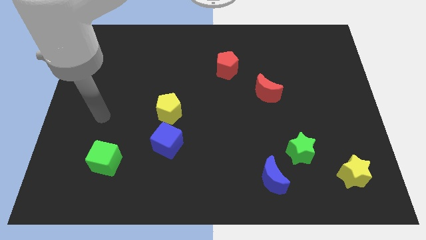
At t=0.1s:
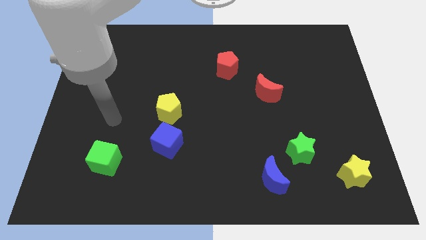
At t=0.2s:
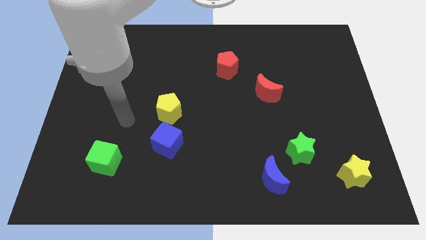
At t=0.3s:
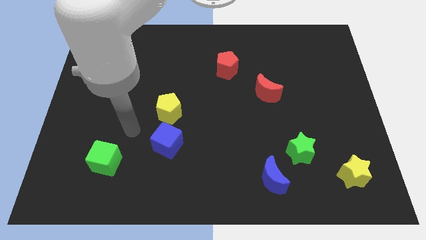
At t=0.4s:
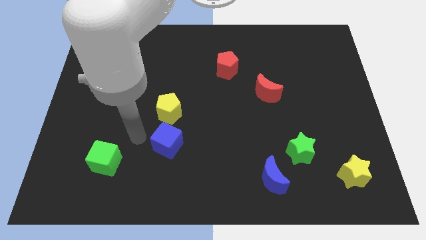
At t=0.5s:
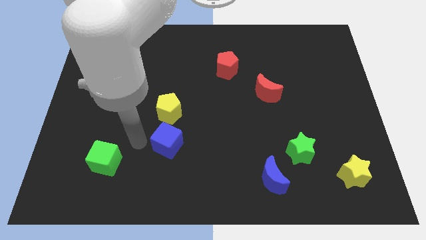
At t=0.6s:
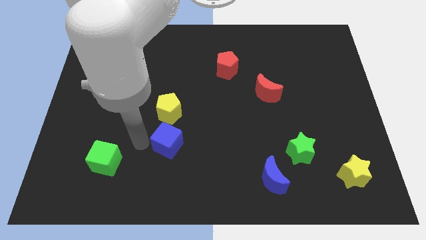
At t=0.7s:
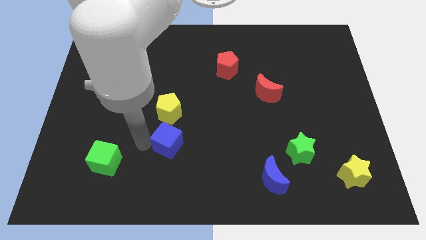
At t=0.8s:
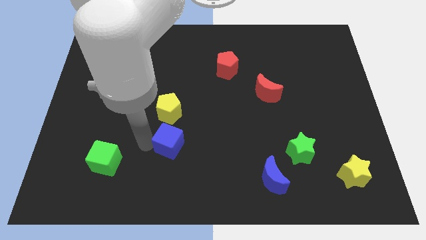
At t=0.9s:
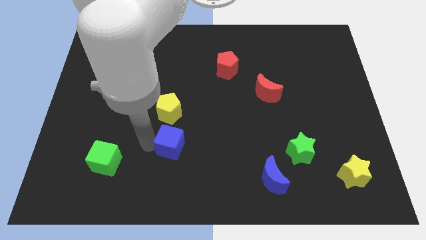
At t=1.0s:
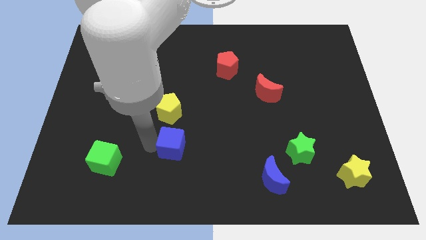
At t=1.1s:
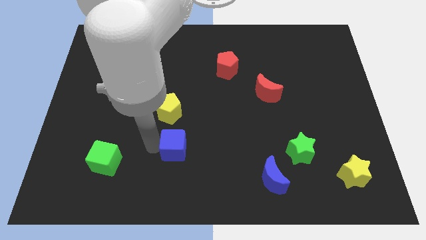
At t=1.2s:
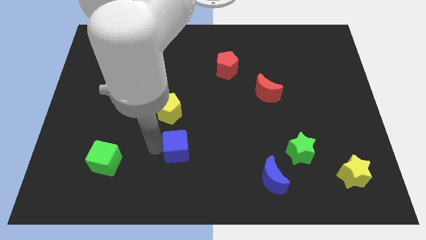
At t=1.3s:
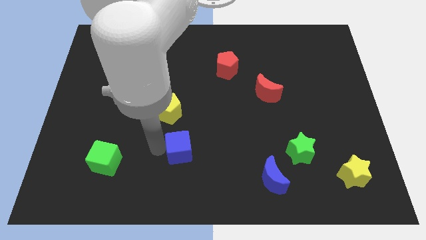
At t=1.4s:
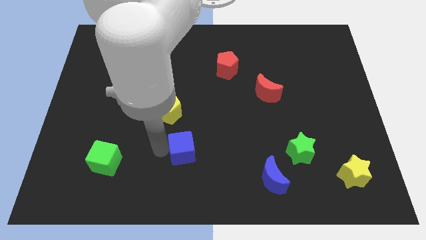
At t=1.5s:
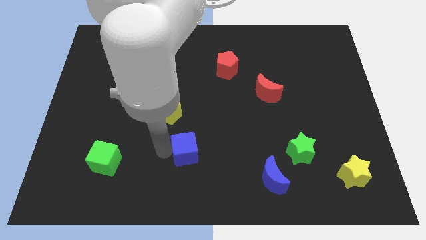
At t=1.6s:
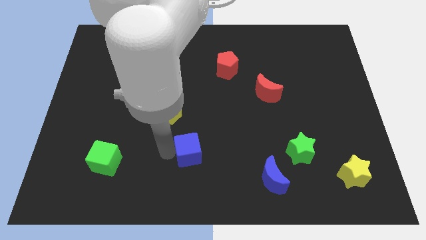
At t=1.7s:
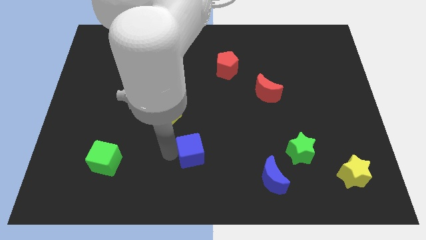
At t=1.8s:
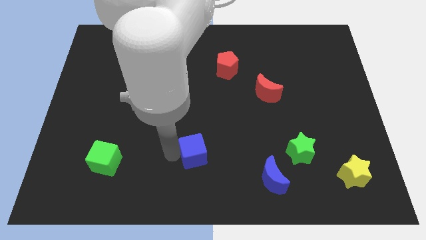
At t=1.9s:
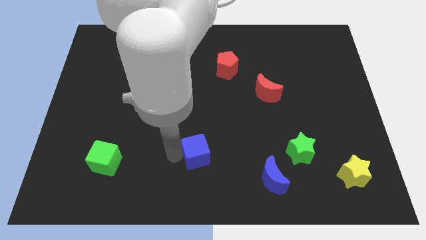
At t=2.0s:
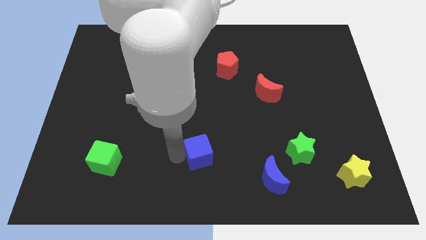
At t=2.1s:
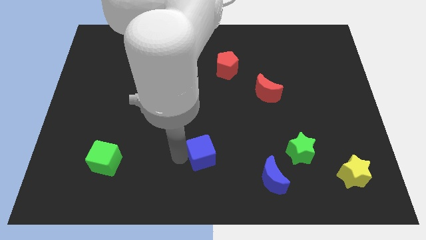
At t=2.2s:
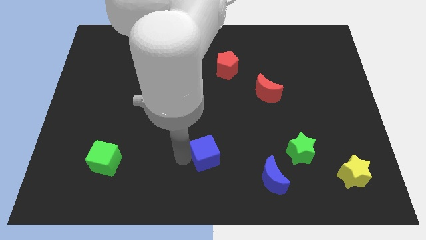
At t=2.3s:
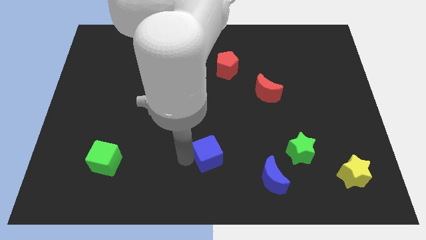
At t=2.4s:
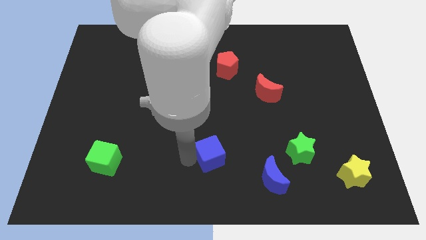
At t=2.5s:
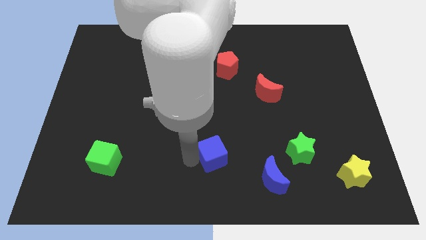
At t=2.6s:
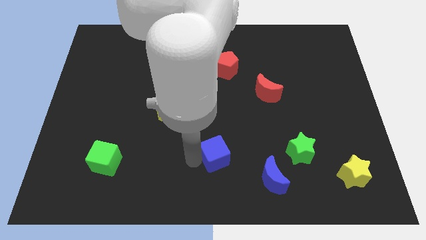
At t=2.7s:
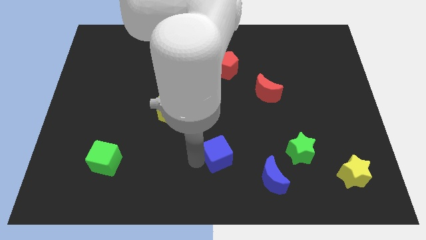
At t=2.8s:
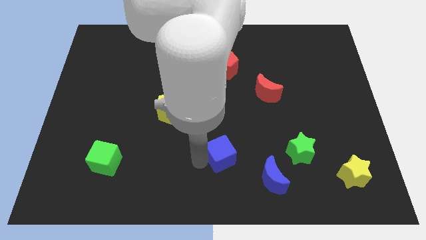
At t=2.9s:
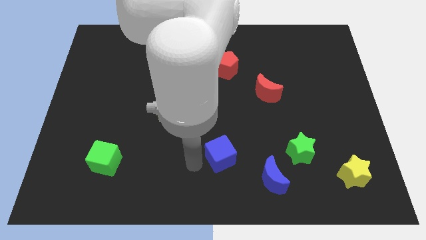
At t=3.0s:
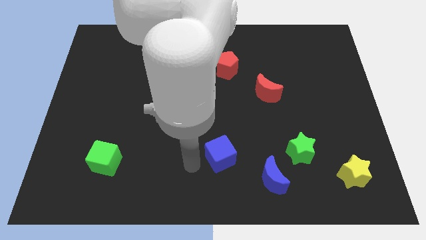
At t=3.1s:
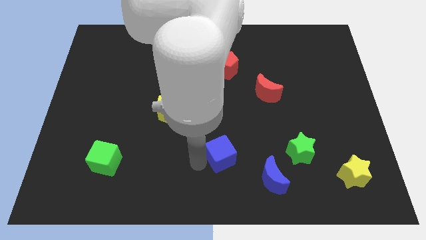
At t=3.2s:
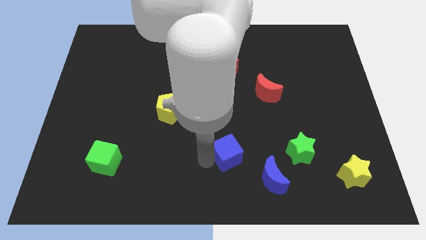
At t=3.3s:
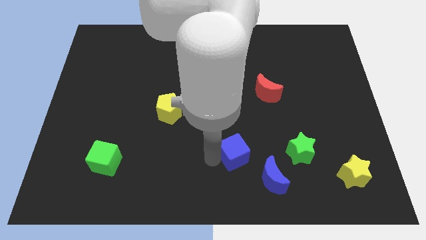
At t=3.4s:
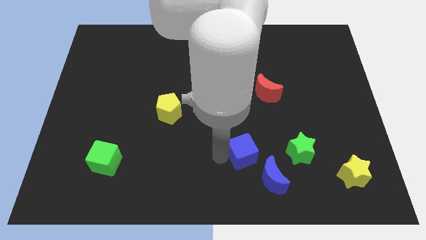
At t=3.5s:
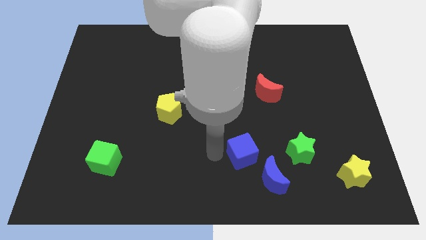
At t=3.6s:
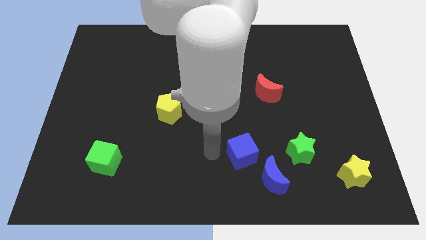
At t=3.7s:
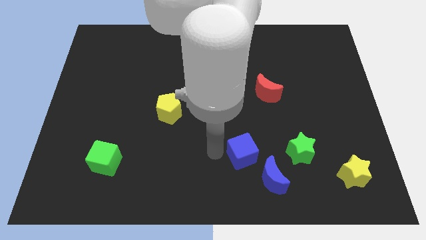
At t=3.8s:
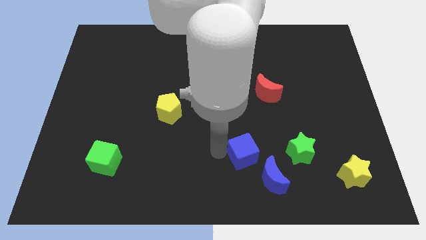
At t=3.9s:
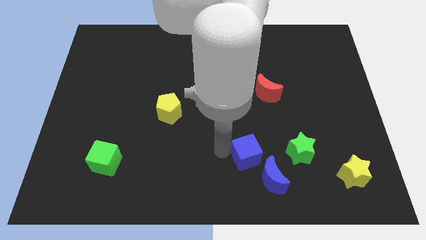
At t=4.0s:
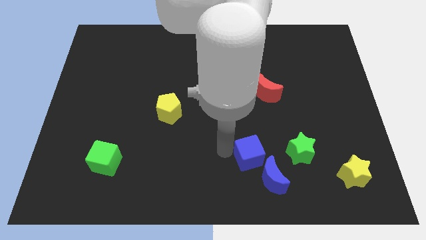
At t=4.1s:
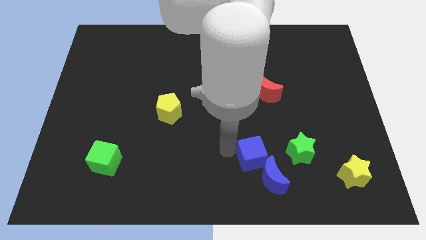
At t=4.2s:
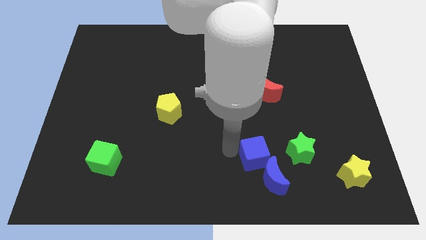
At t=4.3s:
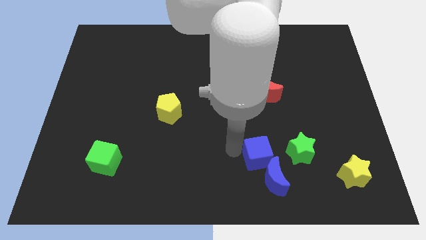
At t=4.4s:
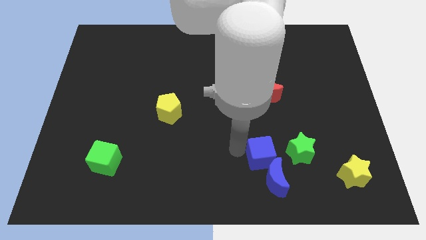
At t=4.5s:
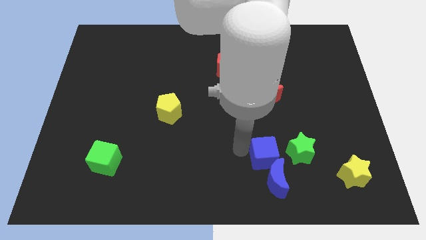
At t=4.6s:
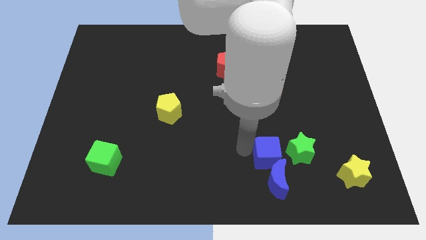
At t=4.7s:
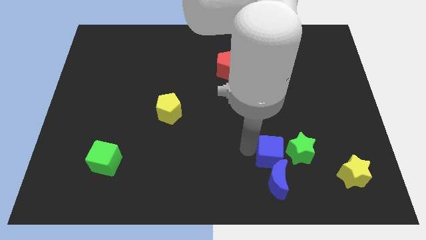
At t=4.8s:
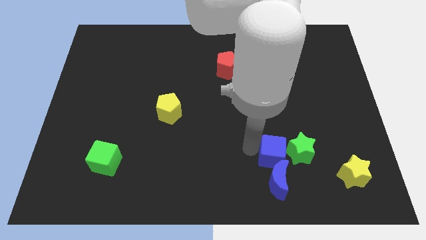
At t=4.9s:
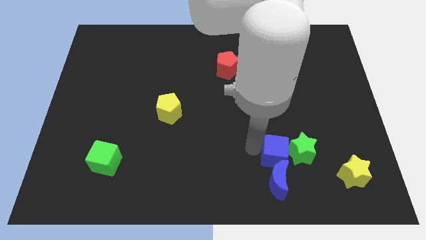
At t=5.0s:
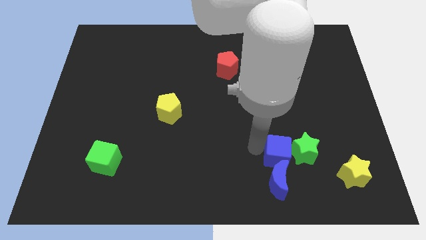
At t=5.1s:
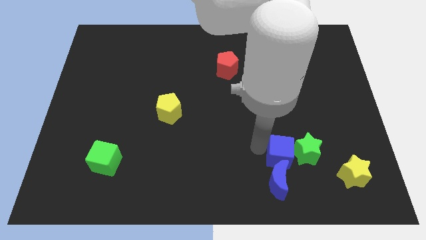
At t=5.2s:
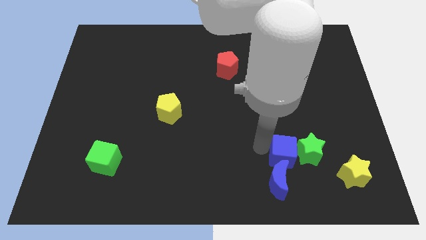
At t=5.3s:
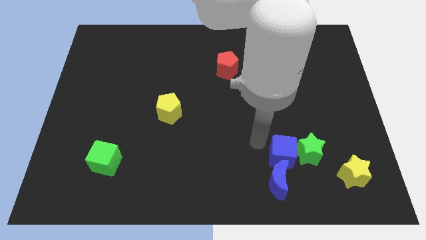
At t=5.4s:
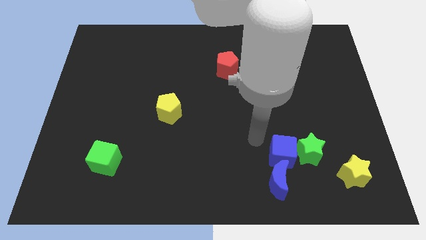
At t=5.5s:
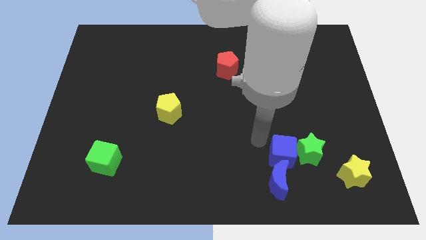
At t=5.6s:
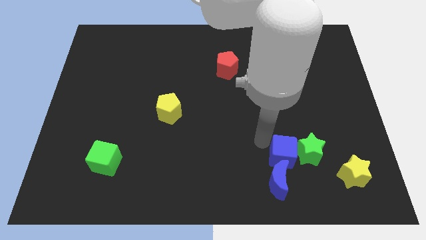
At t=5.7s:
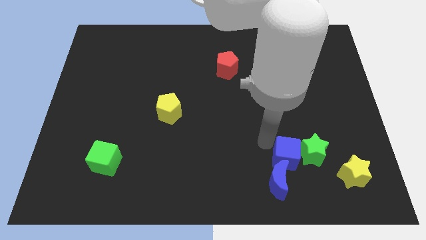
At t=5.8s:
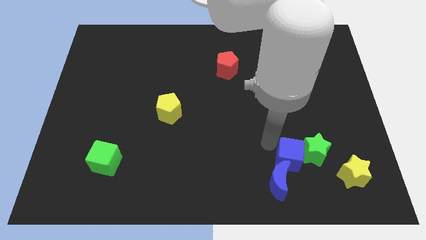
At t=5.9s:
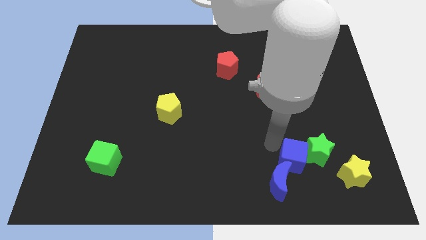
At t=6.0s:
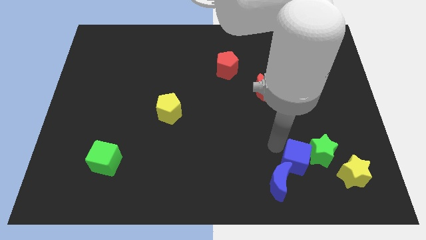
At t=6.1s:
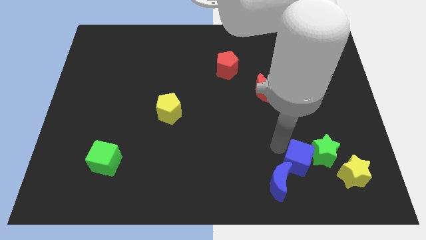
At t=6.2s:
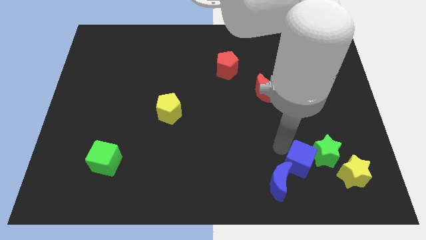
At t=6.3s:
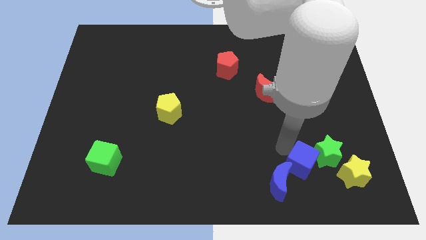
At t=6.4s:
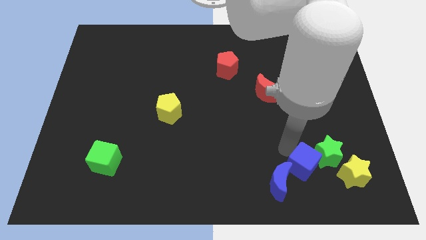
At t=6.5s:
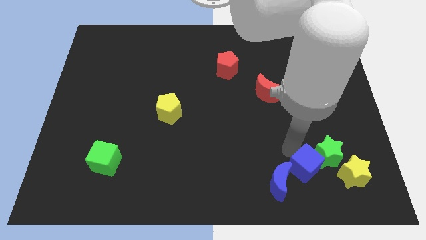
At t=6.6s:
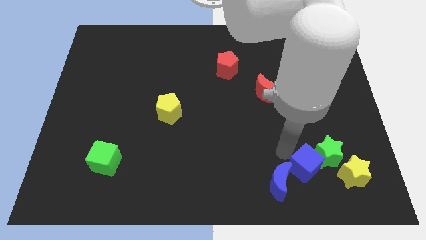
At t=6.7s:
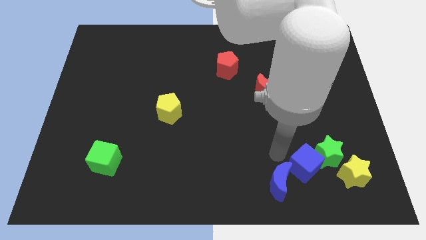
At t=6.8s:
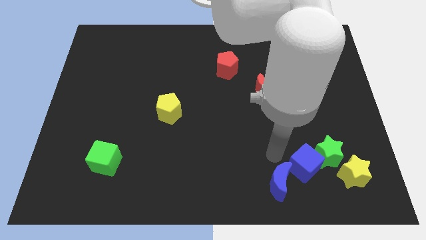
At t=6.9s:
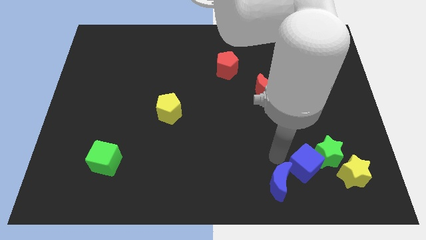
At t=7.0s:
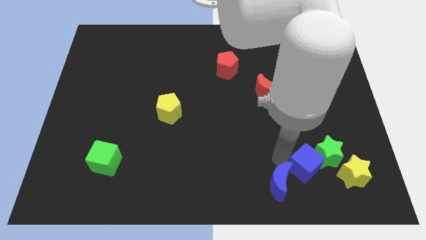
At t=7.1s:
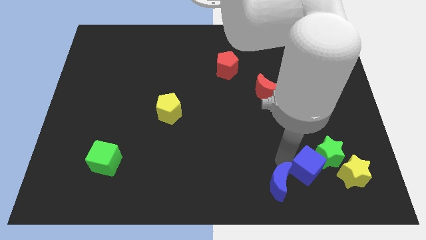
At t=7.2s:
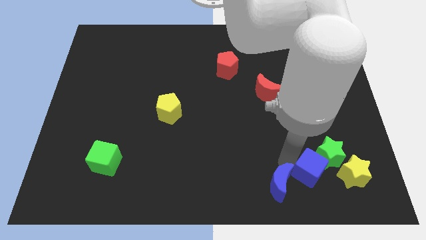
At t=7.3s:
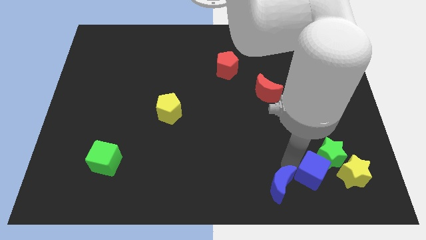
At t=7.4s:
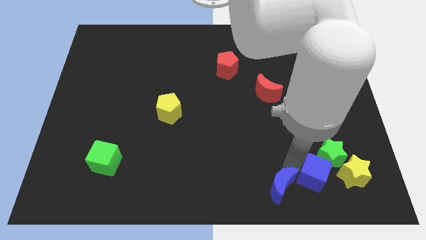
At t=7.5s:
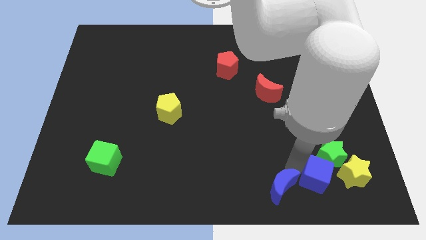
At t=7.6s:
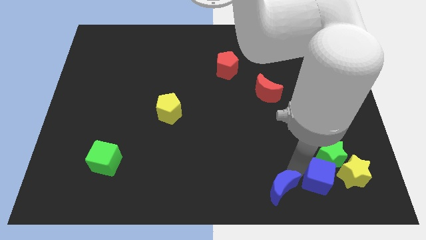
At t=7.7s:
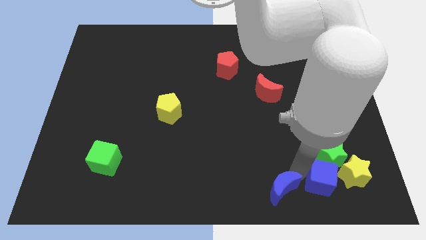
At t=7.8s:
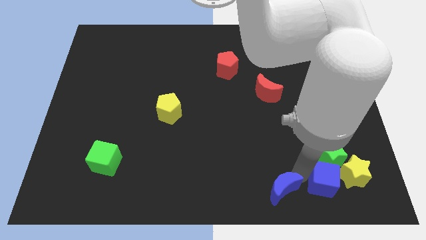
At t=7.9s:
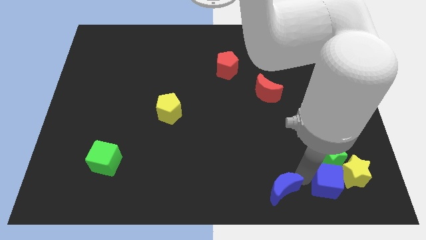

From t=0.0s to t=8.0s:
push the blue cube towards the yellow star
